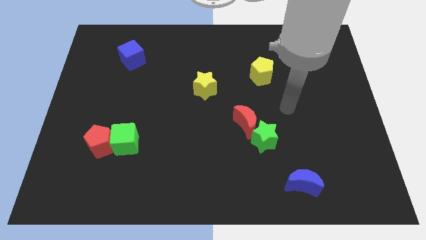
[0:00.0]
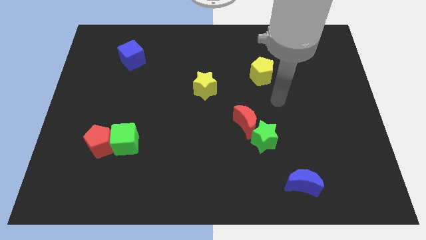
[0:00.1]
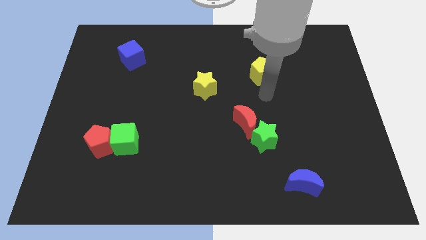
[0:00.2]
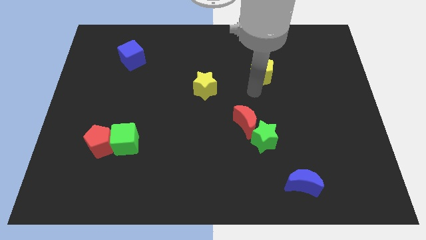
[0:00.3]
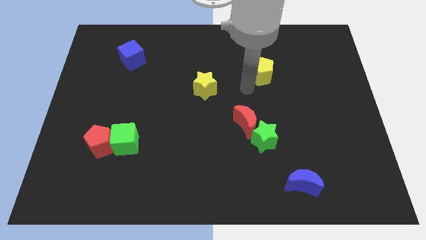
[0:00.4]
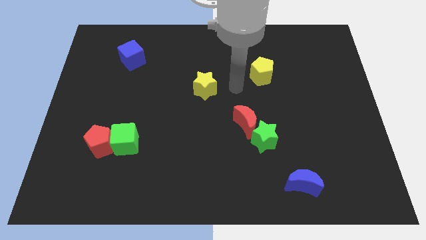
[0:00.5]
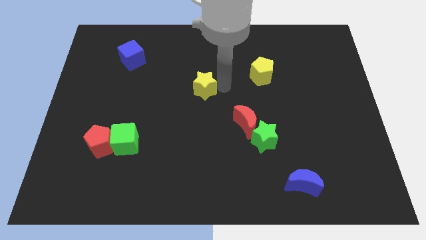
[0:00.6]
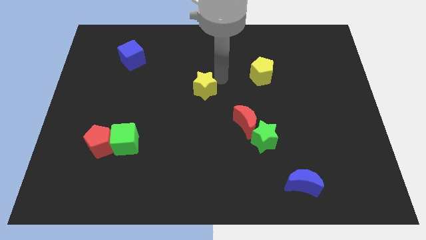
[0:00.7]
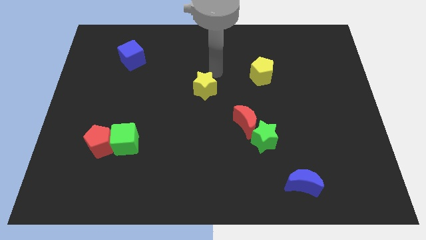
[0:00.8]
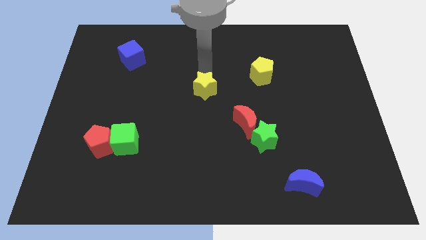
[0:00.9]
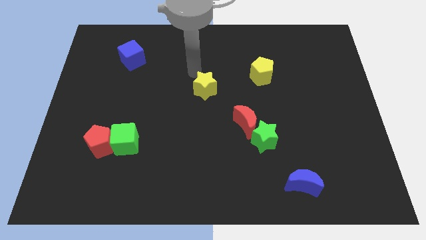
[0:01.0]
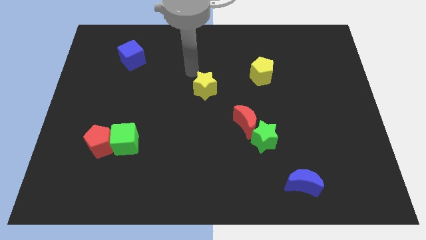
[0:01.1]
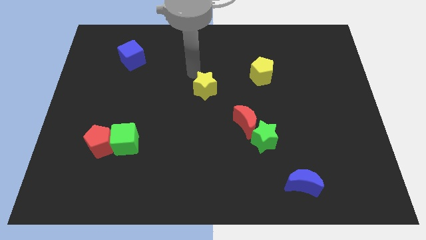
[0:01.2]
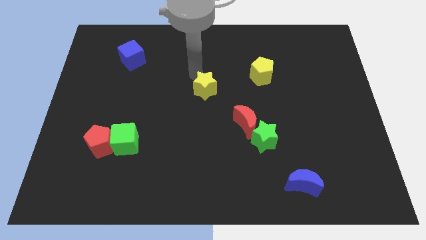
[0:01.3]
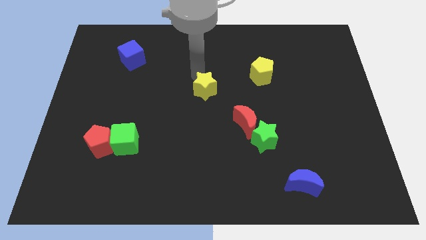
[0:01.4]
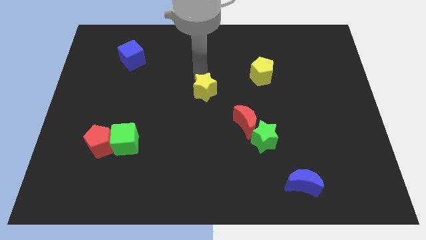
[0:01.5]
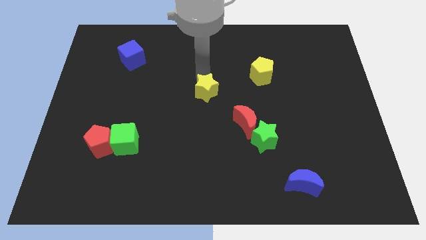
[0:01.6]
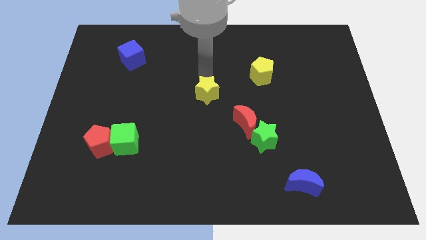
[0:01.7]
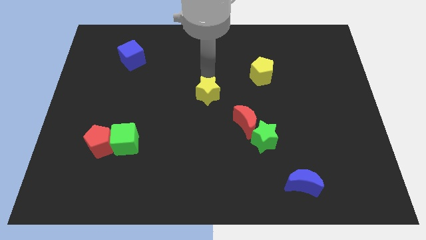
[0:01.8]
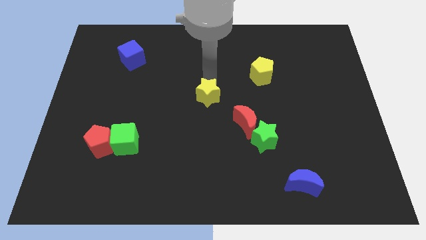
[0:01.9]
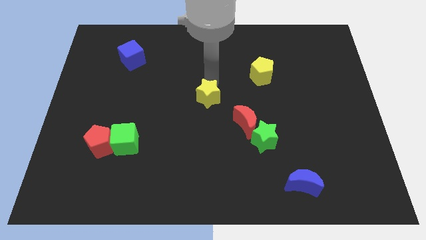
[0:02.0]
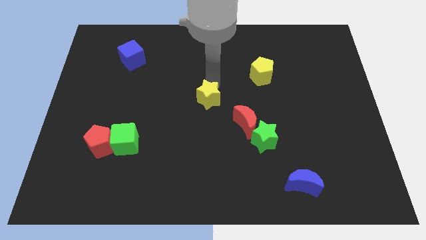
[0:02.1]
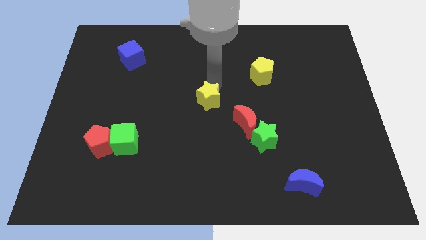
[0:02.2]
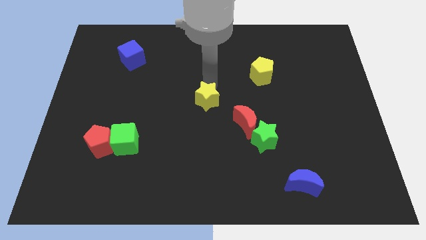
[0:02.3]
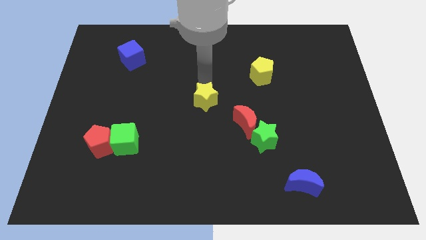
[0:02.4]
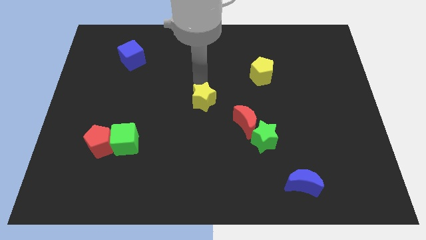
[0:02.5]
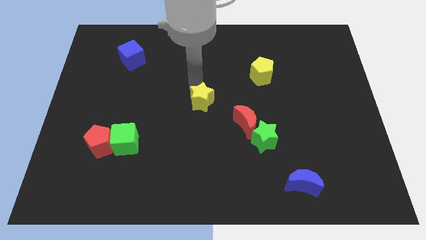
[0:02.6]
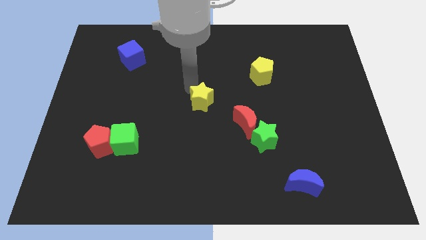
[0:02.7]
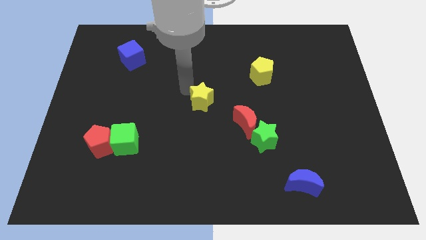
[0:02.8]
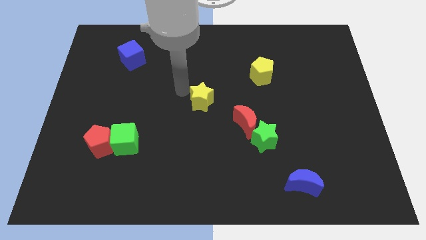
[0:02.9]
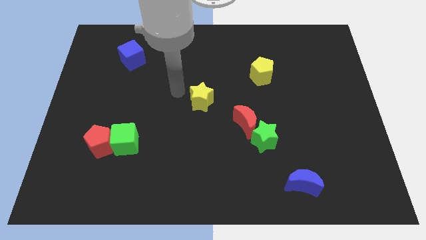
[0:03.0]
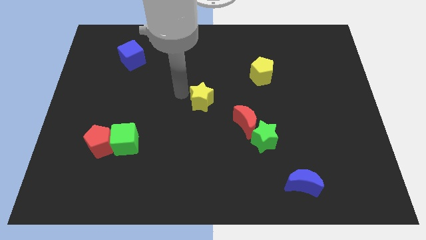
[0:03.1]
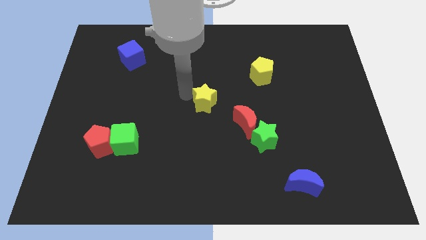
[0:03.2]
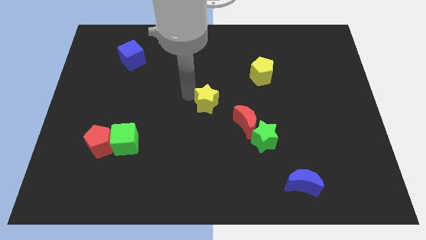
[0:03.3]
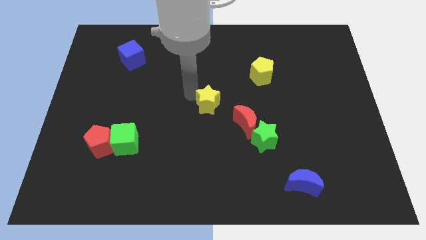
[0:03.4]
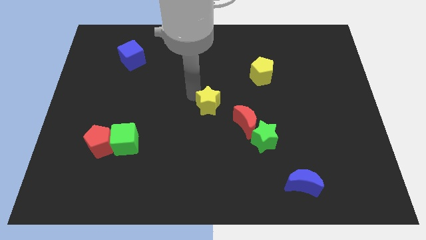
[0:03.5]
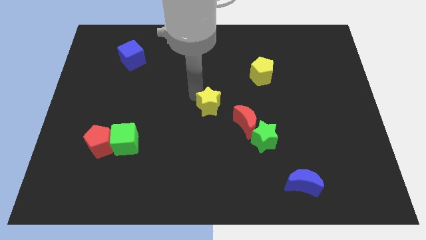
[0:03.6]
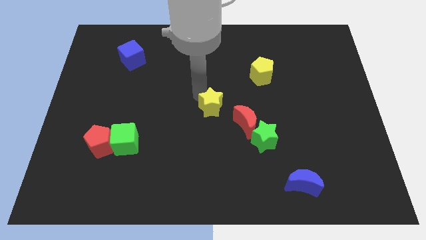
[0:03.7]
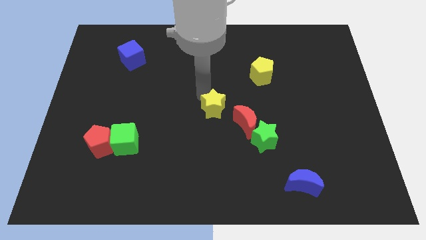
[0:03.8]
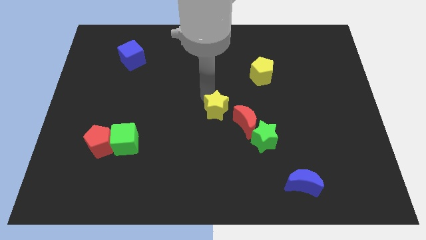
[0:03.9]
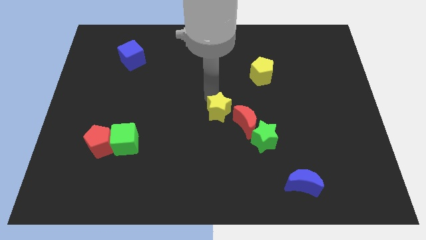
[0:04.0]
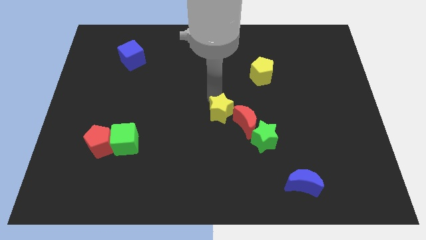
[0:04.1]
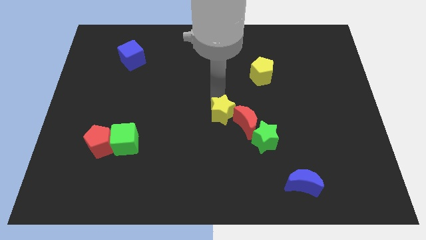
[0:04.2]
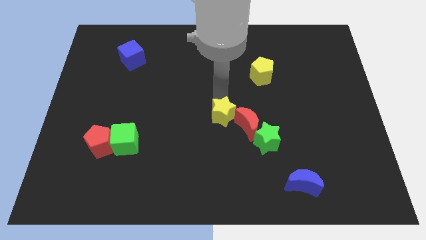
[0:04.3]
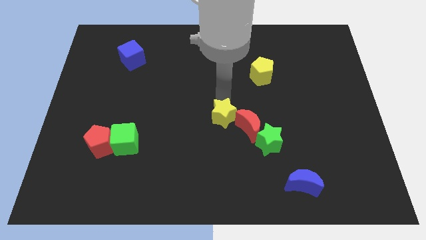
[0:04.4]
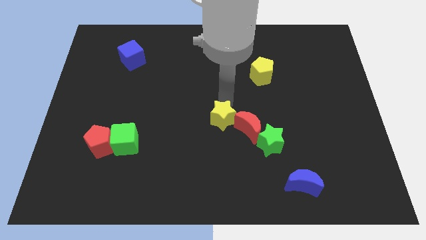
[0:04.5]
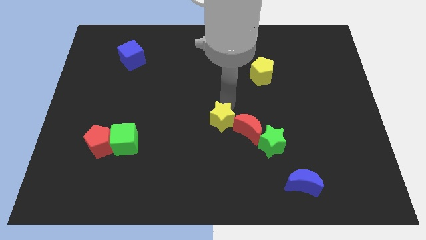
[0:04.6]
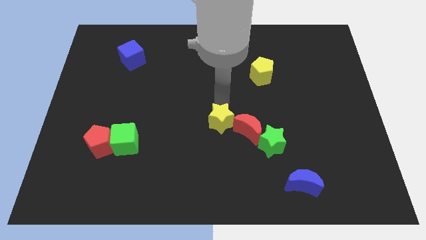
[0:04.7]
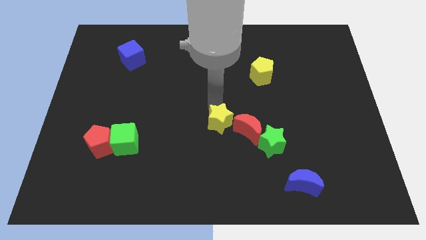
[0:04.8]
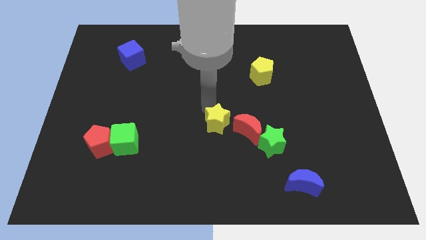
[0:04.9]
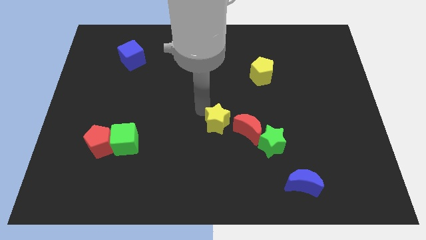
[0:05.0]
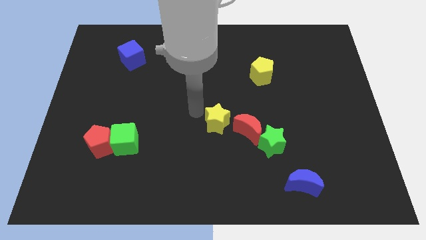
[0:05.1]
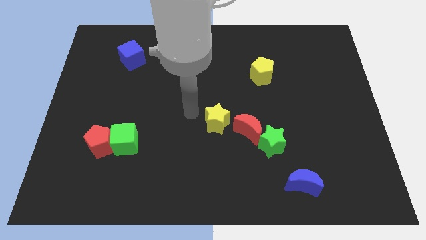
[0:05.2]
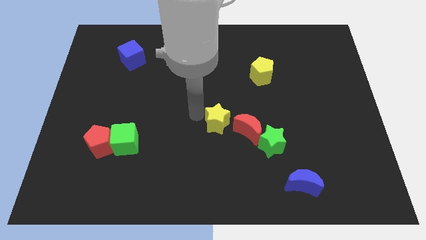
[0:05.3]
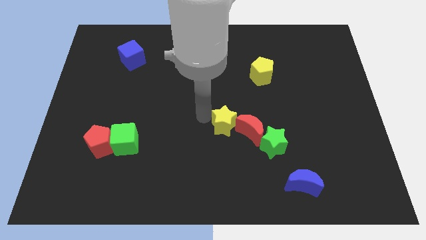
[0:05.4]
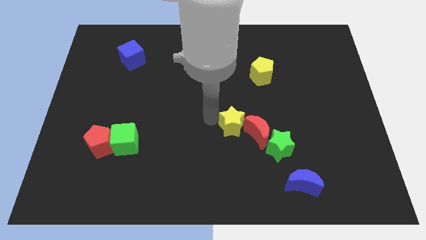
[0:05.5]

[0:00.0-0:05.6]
put the yellow star to the red moon

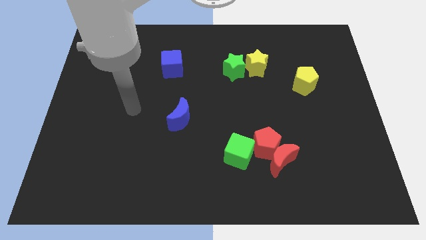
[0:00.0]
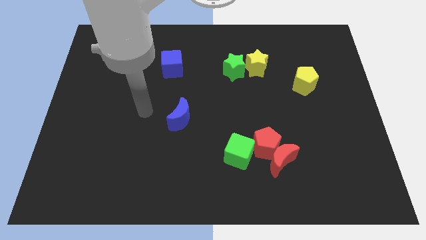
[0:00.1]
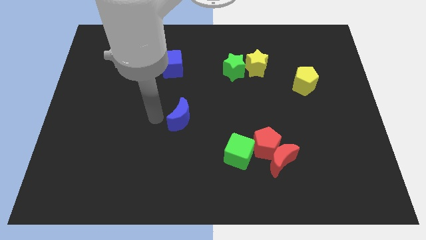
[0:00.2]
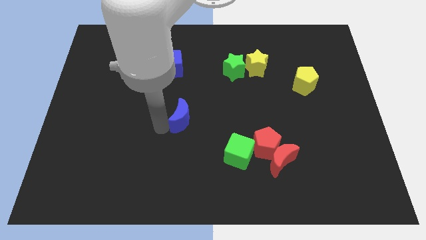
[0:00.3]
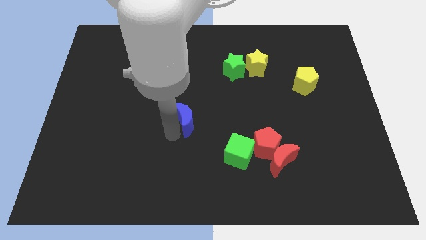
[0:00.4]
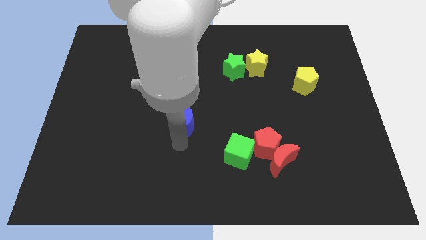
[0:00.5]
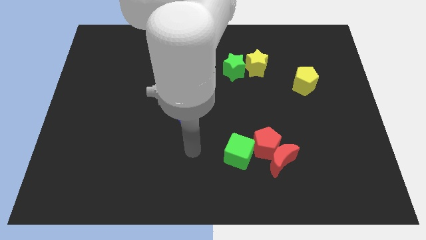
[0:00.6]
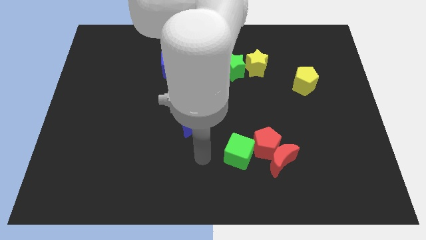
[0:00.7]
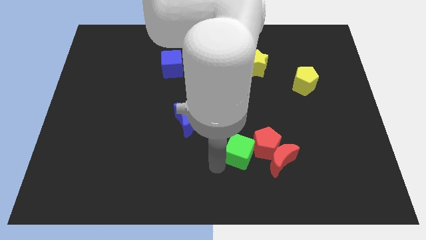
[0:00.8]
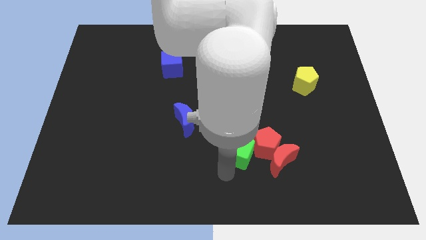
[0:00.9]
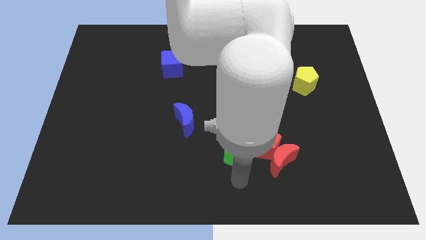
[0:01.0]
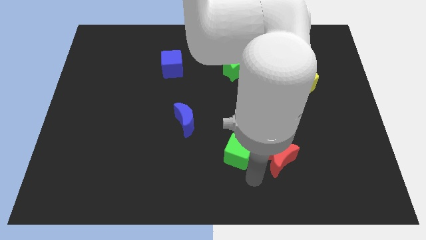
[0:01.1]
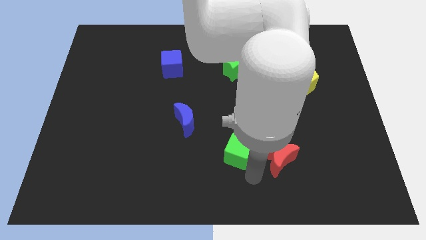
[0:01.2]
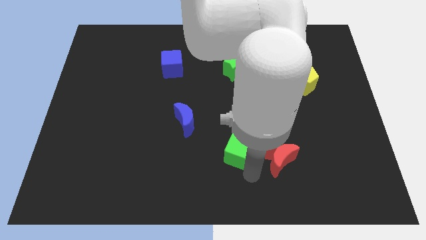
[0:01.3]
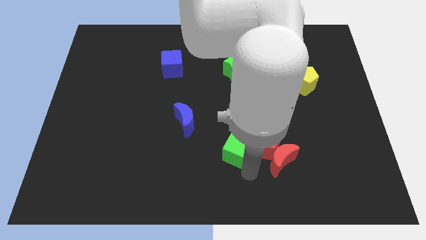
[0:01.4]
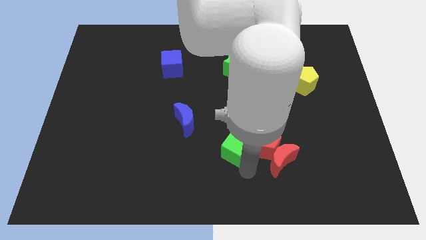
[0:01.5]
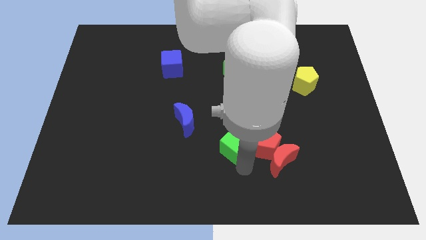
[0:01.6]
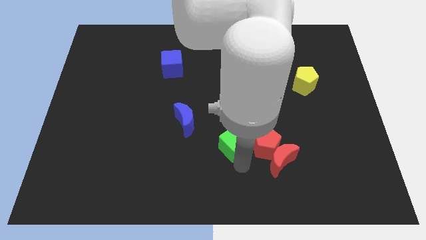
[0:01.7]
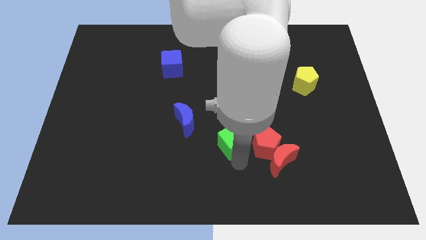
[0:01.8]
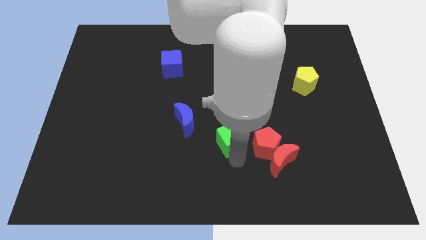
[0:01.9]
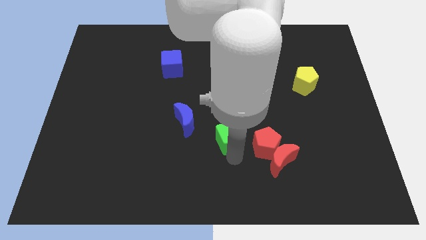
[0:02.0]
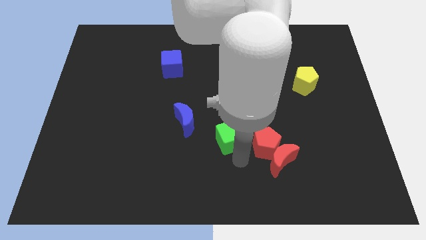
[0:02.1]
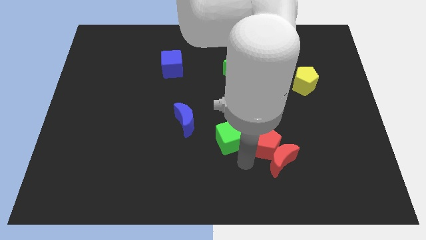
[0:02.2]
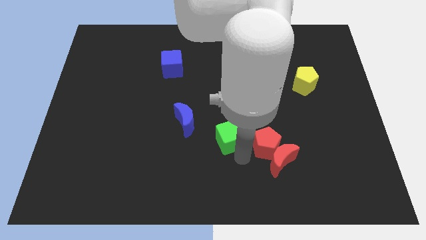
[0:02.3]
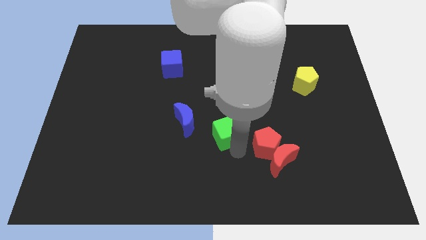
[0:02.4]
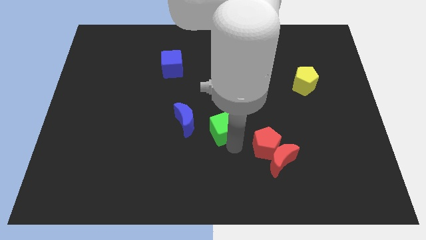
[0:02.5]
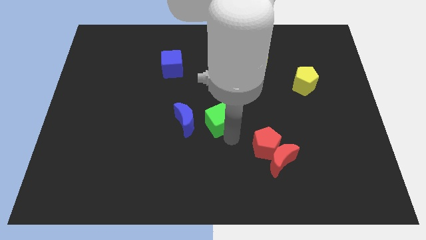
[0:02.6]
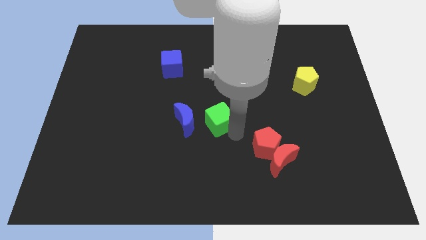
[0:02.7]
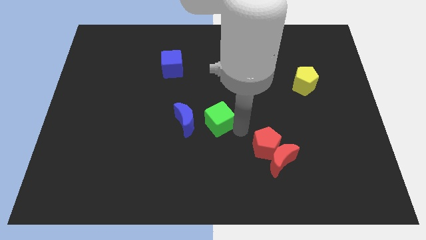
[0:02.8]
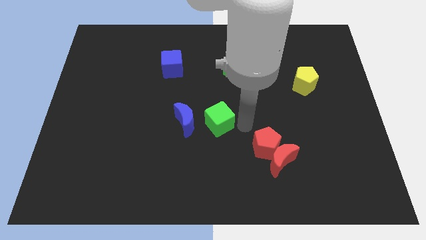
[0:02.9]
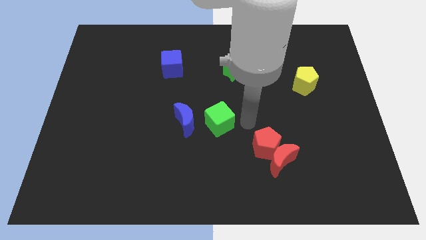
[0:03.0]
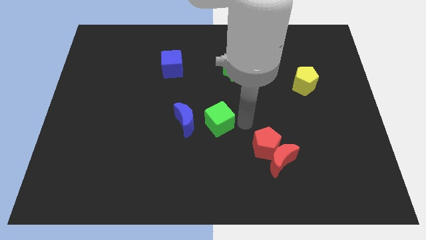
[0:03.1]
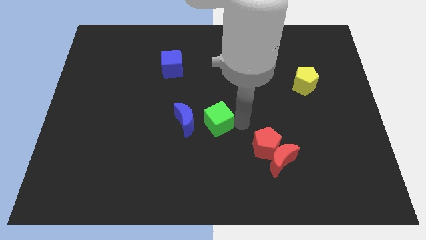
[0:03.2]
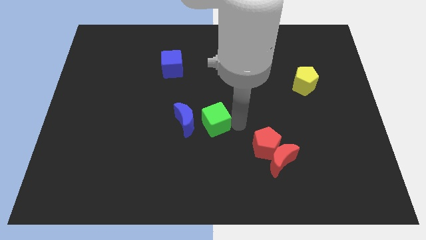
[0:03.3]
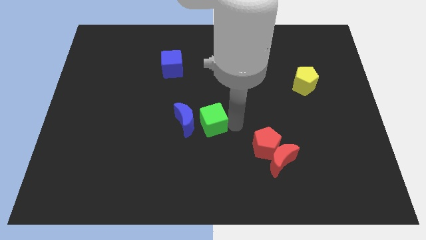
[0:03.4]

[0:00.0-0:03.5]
put the green cube towards the blue moon
